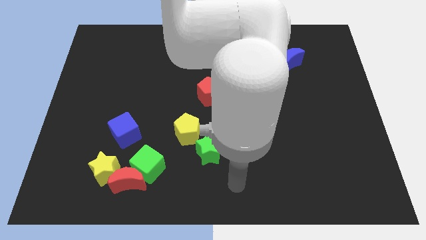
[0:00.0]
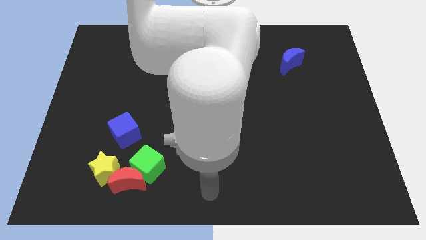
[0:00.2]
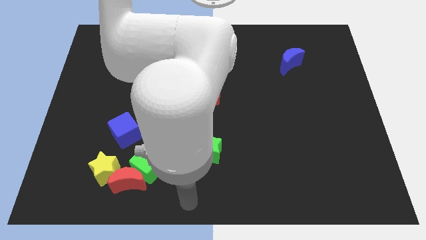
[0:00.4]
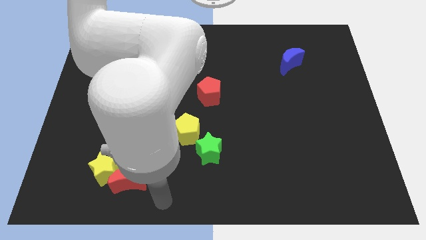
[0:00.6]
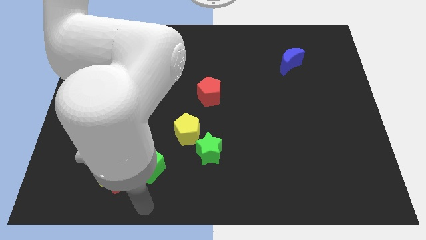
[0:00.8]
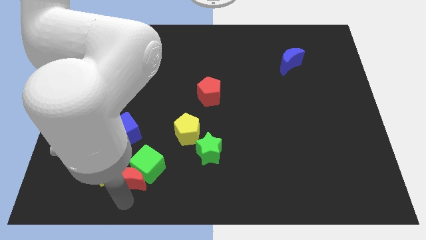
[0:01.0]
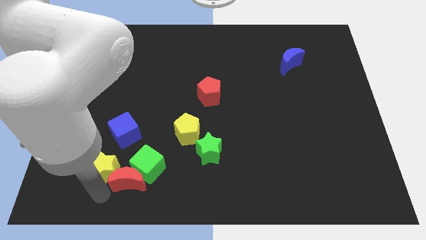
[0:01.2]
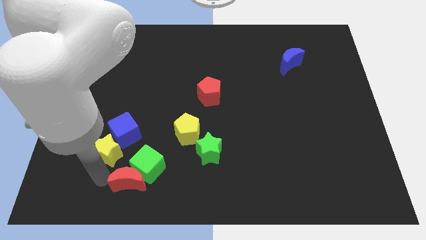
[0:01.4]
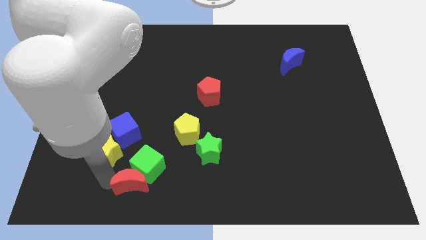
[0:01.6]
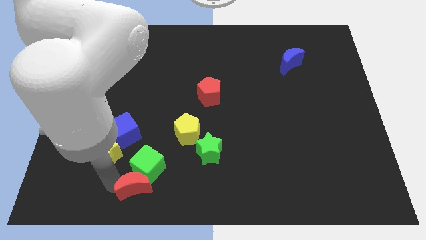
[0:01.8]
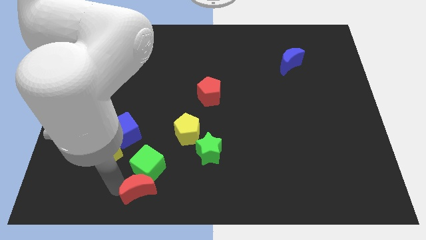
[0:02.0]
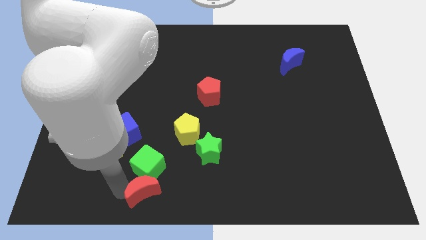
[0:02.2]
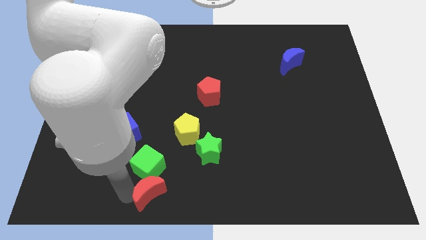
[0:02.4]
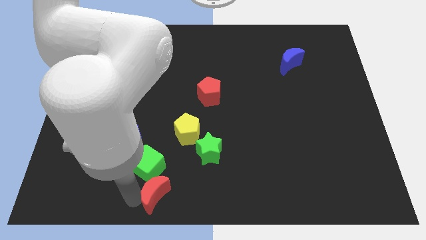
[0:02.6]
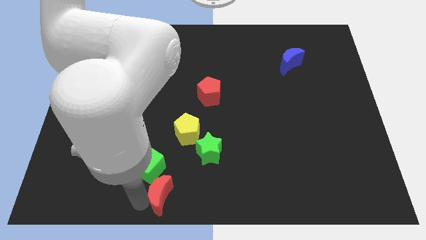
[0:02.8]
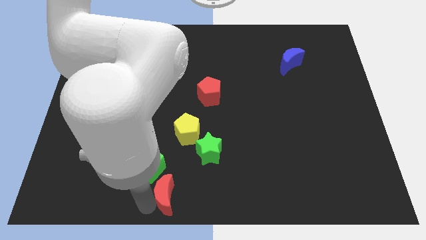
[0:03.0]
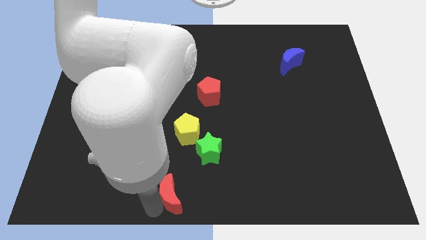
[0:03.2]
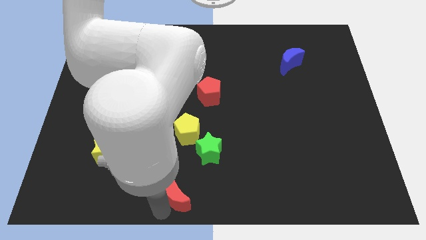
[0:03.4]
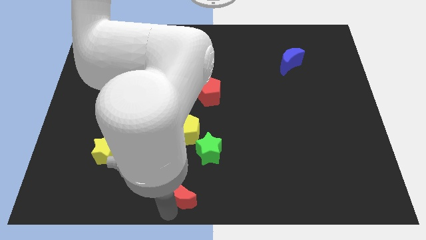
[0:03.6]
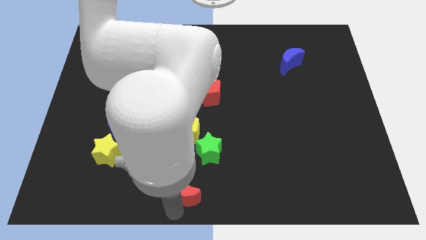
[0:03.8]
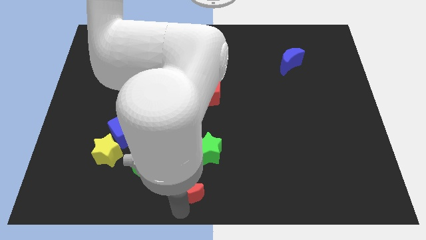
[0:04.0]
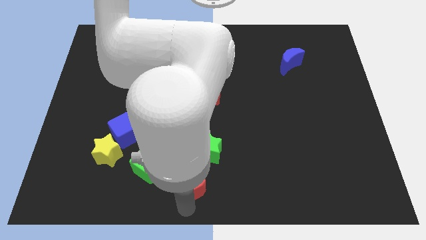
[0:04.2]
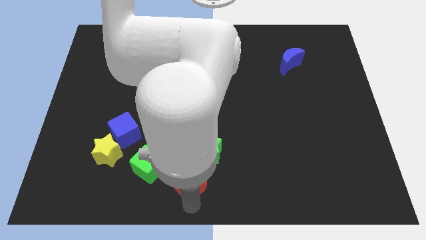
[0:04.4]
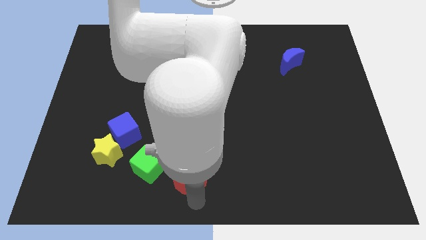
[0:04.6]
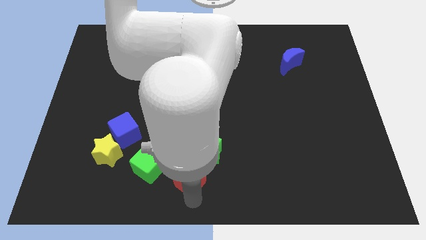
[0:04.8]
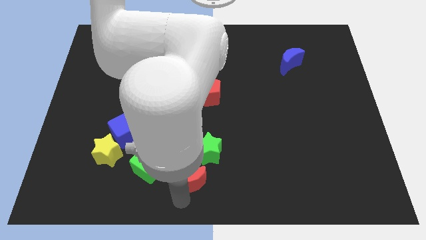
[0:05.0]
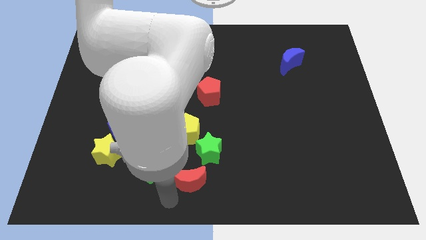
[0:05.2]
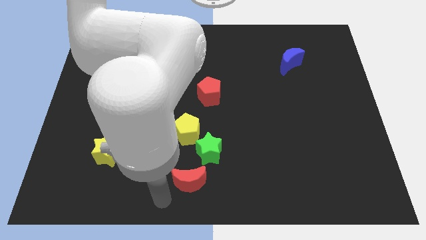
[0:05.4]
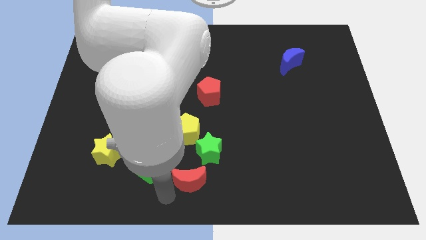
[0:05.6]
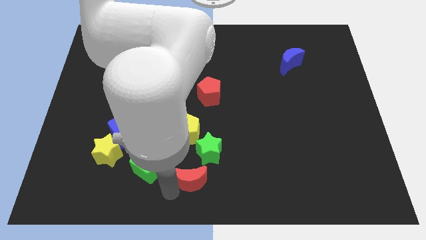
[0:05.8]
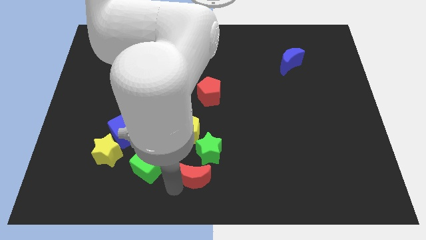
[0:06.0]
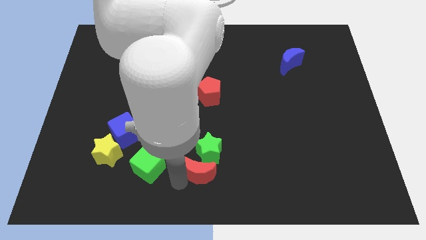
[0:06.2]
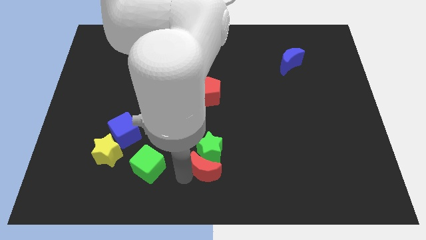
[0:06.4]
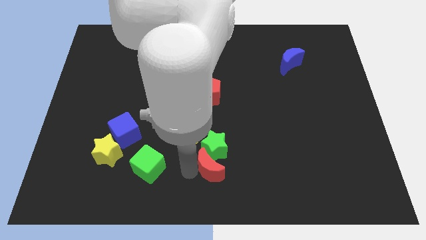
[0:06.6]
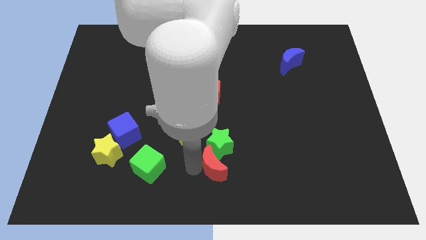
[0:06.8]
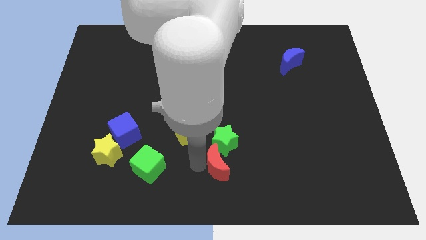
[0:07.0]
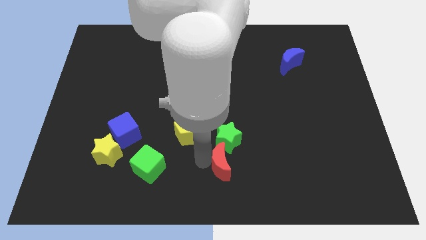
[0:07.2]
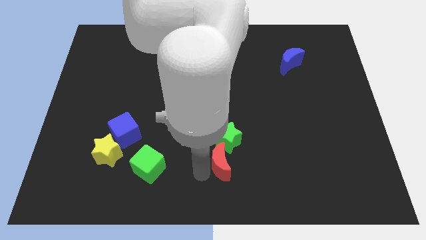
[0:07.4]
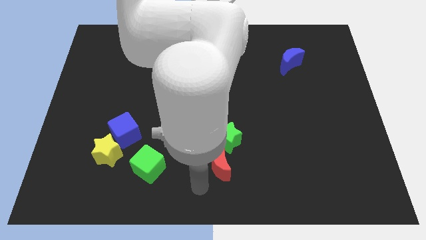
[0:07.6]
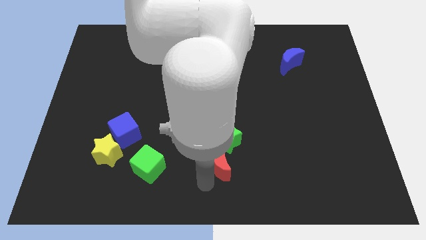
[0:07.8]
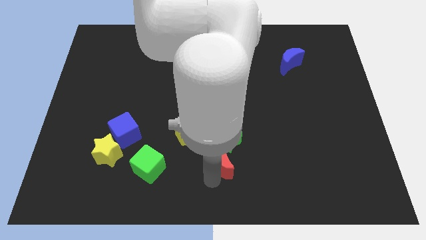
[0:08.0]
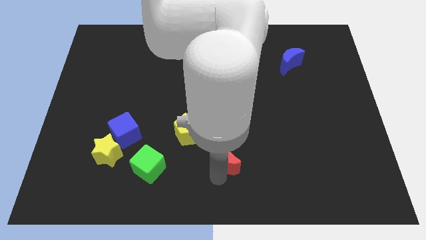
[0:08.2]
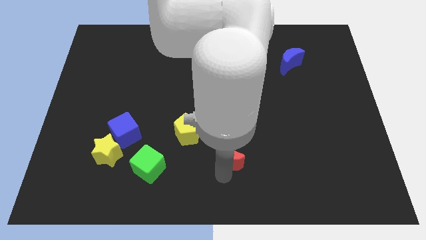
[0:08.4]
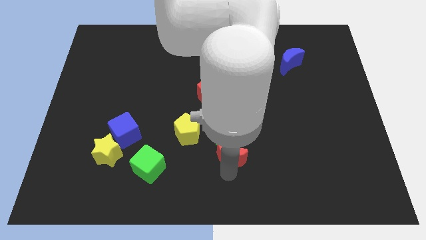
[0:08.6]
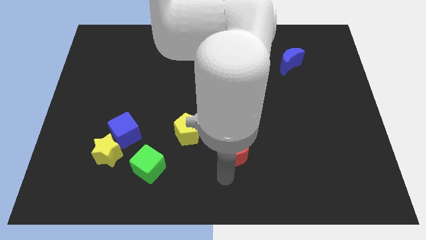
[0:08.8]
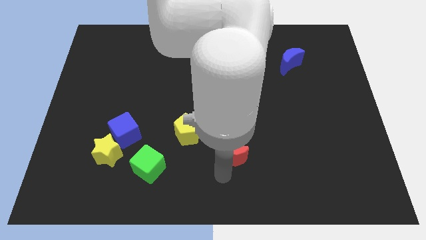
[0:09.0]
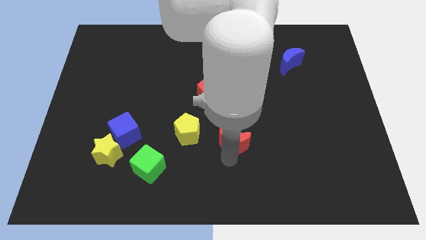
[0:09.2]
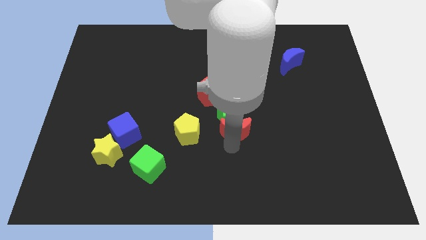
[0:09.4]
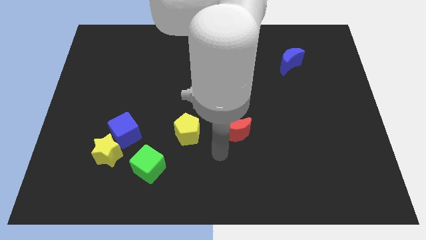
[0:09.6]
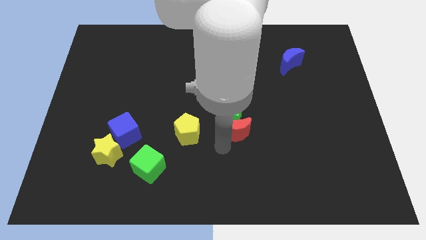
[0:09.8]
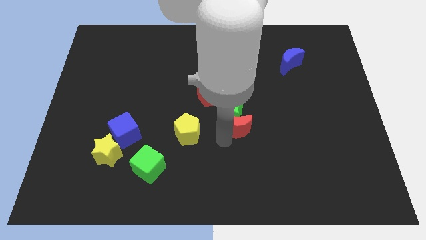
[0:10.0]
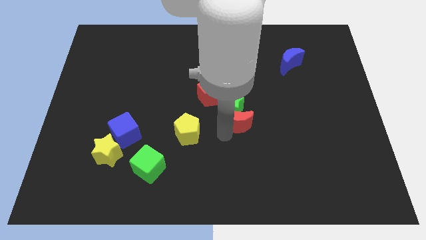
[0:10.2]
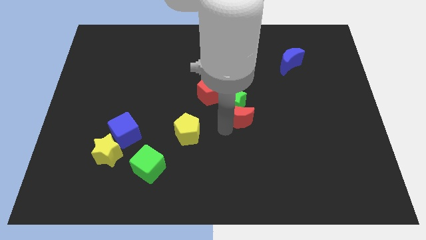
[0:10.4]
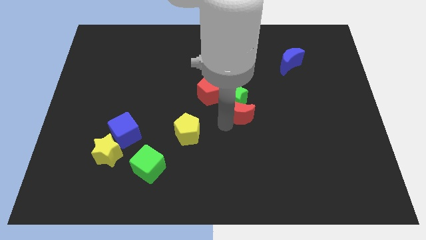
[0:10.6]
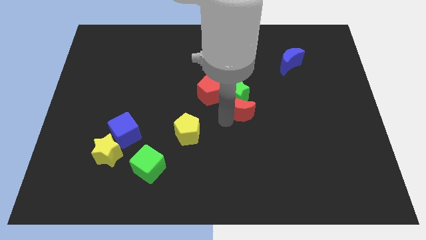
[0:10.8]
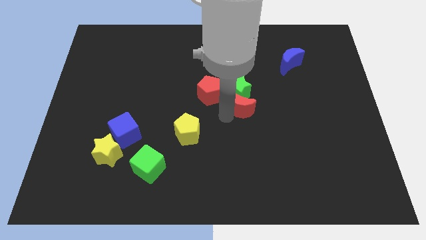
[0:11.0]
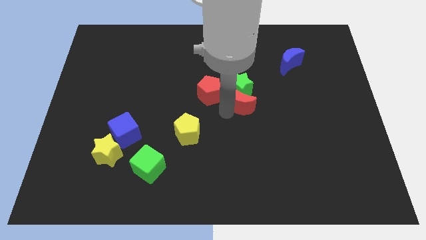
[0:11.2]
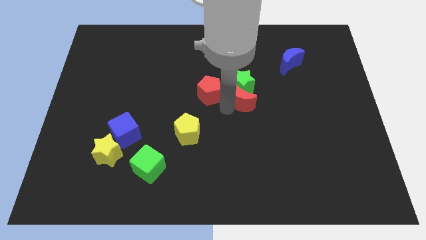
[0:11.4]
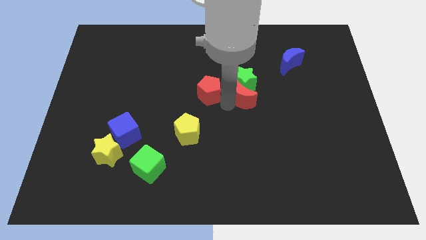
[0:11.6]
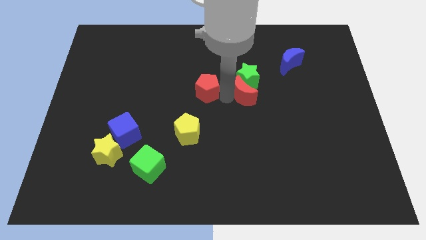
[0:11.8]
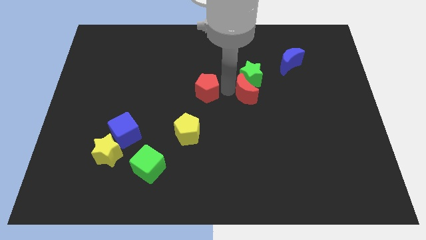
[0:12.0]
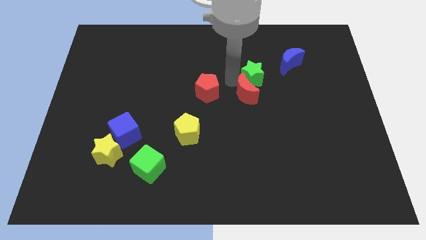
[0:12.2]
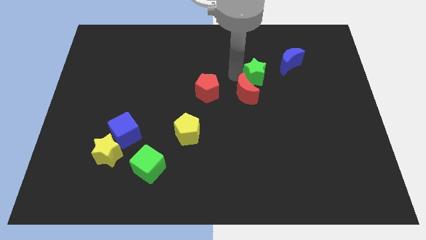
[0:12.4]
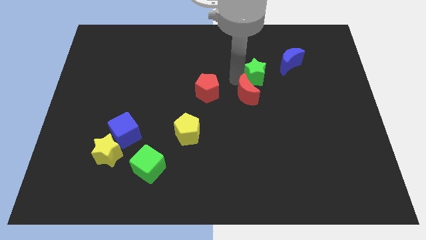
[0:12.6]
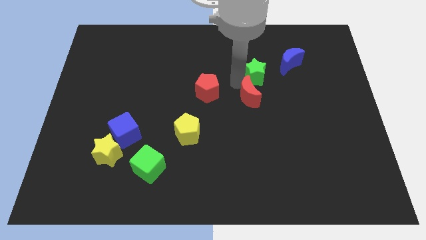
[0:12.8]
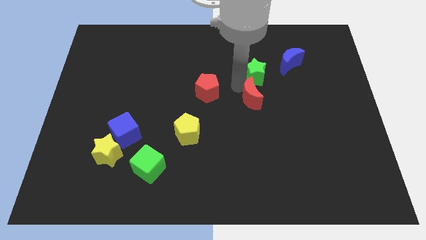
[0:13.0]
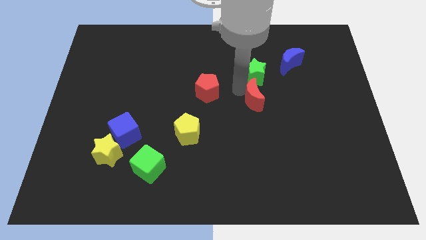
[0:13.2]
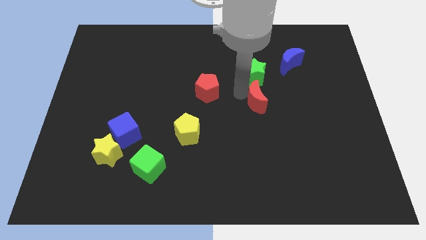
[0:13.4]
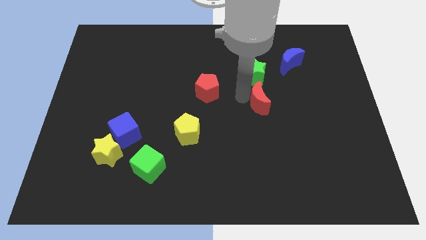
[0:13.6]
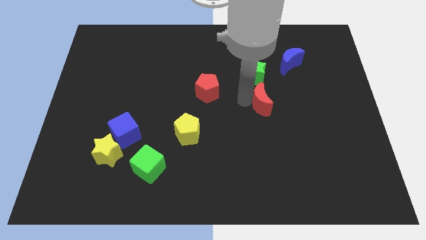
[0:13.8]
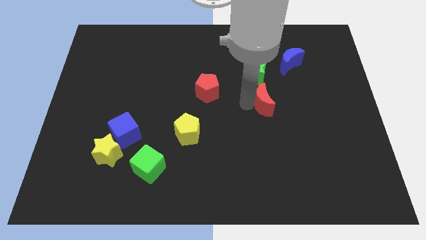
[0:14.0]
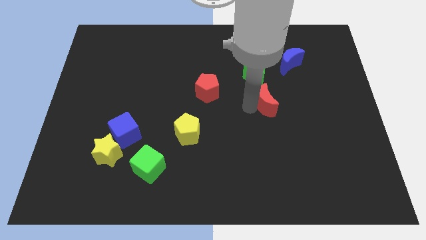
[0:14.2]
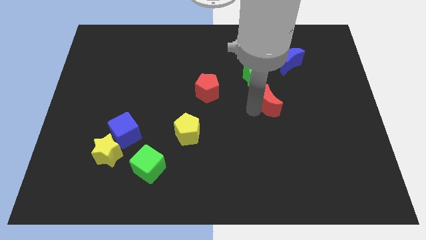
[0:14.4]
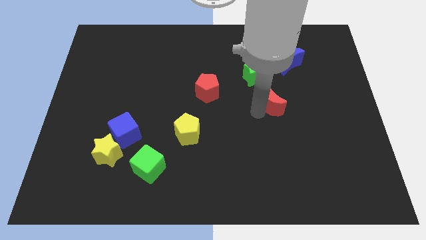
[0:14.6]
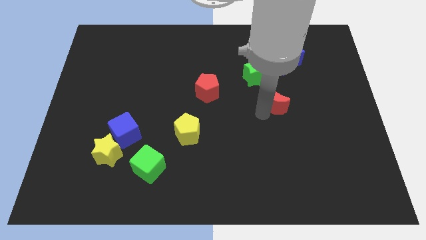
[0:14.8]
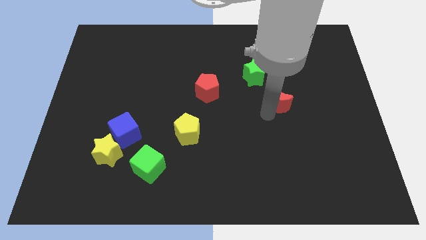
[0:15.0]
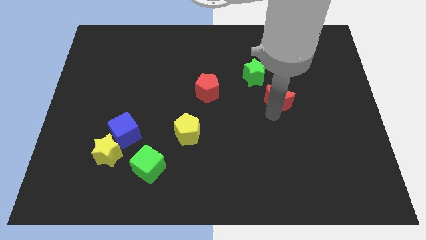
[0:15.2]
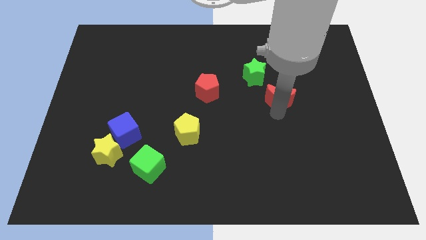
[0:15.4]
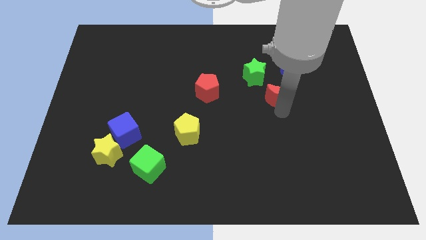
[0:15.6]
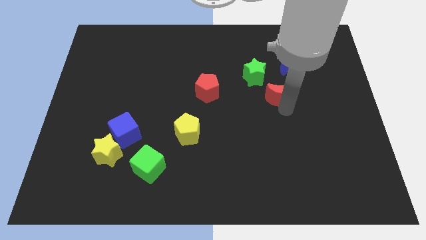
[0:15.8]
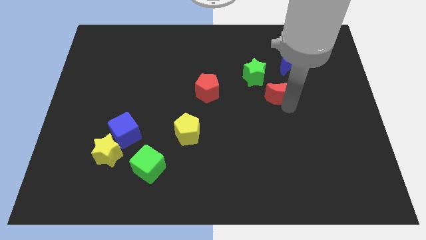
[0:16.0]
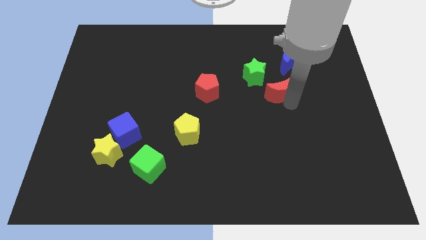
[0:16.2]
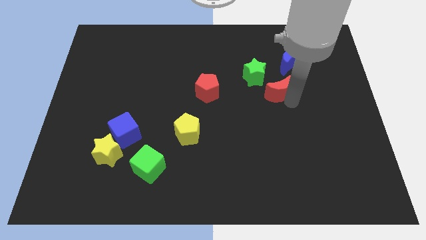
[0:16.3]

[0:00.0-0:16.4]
slide the red moon to the bottom left side of the blue moon
